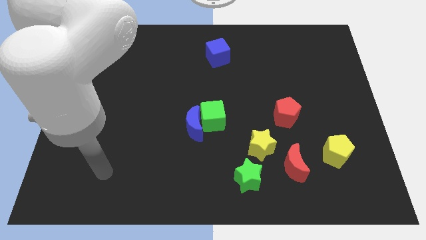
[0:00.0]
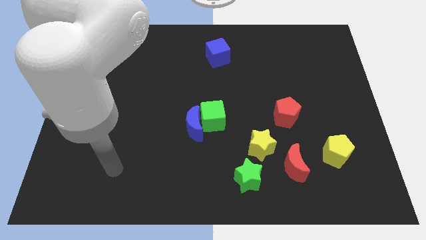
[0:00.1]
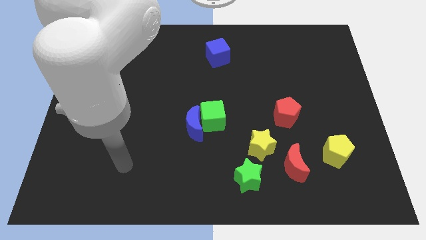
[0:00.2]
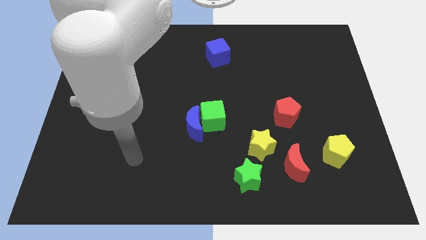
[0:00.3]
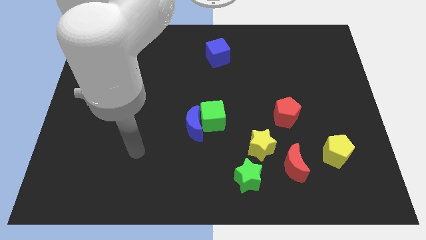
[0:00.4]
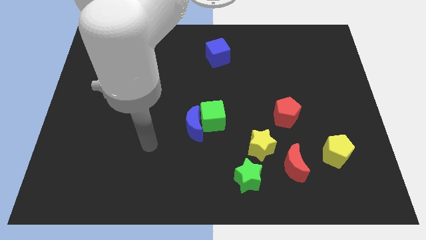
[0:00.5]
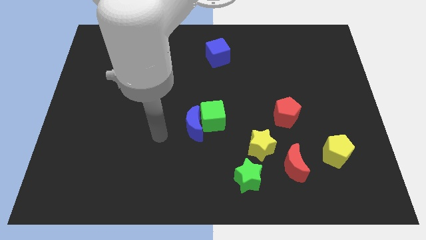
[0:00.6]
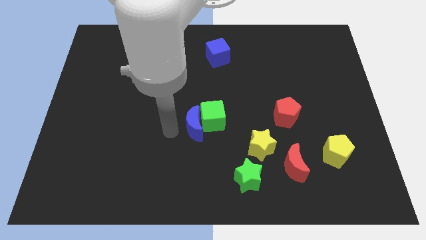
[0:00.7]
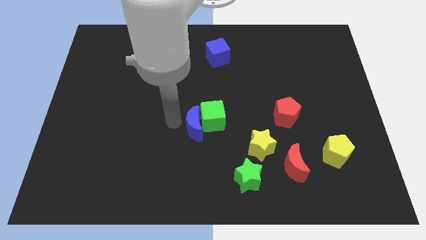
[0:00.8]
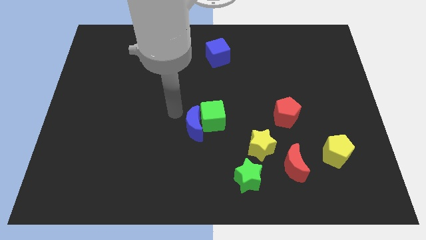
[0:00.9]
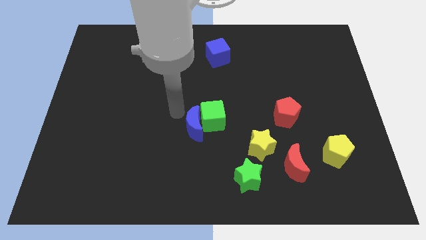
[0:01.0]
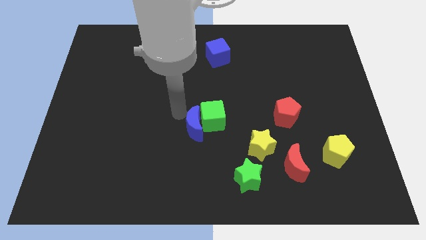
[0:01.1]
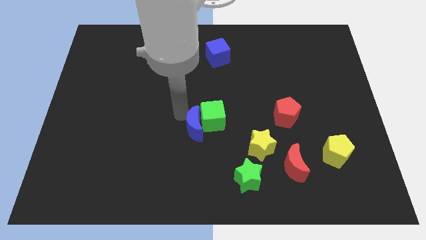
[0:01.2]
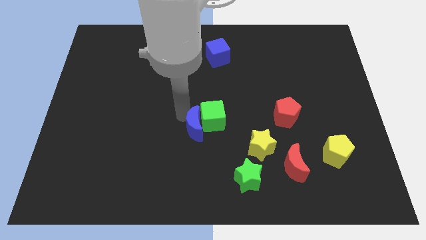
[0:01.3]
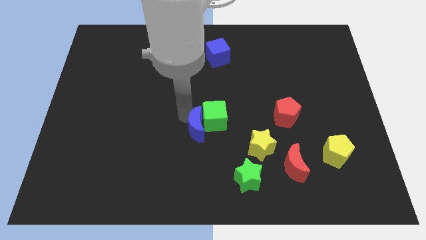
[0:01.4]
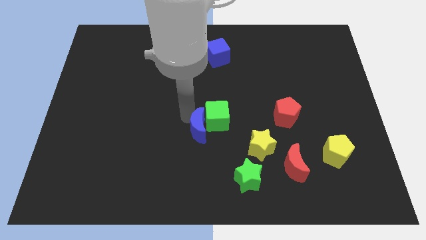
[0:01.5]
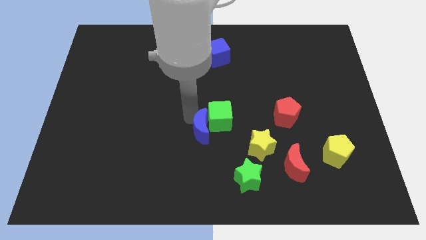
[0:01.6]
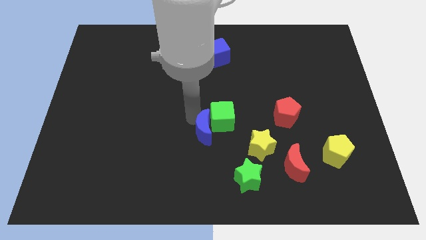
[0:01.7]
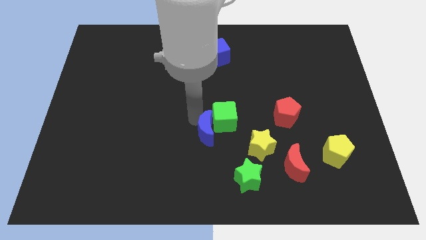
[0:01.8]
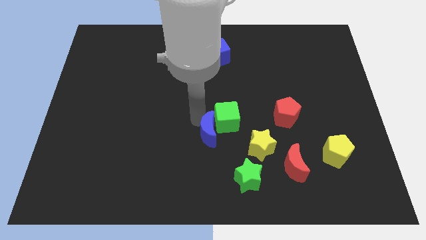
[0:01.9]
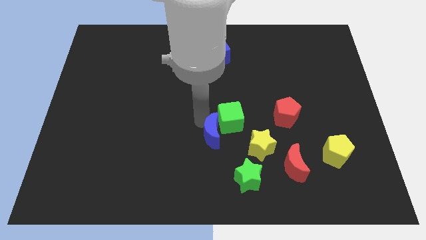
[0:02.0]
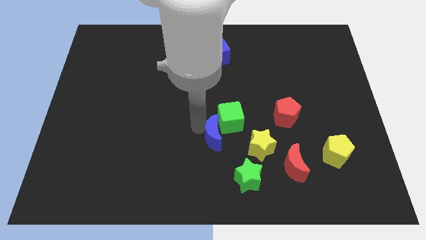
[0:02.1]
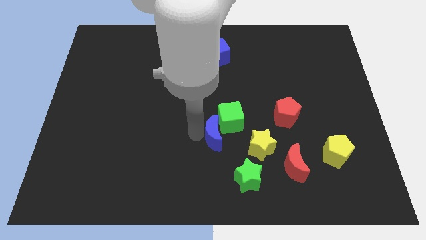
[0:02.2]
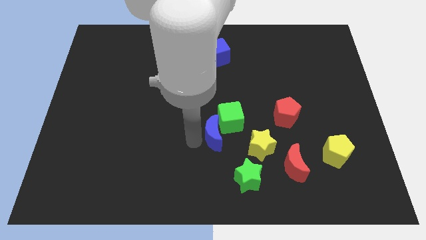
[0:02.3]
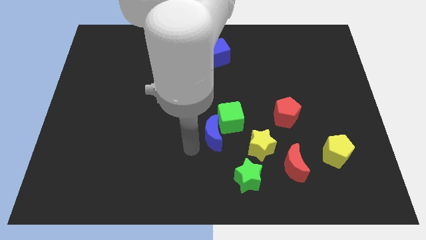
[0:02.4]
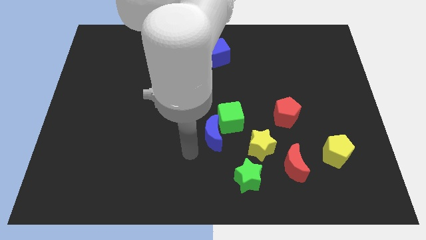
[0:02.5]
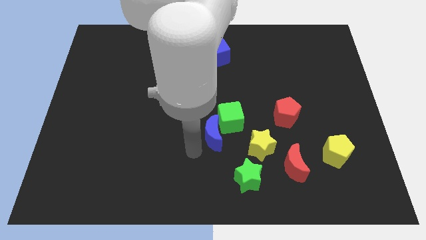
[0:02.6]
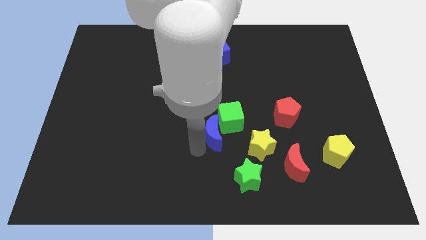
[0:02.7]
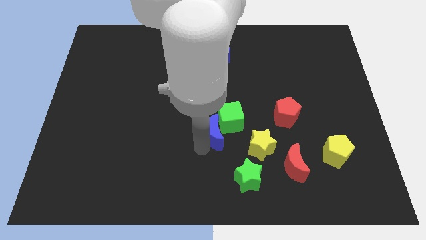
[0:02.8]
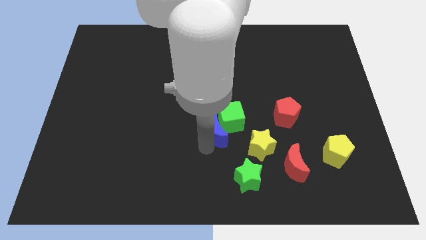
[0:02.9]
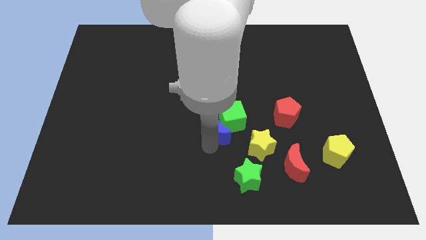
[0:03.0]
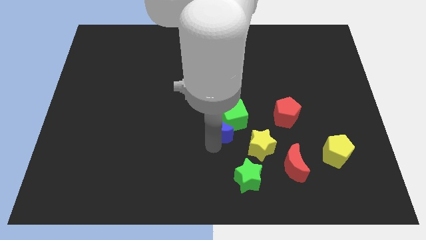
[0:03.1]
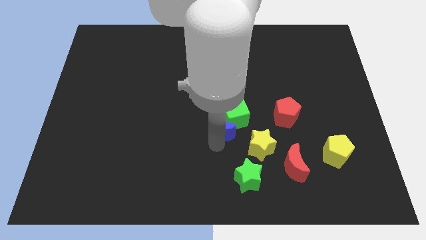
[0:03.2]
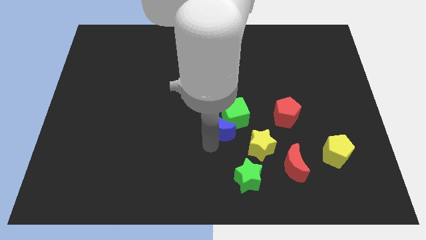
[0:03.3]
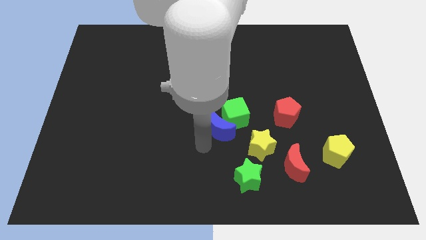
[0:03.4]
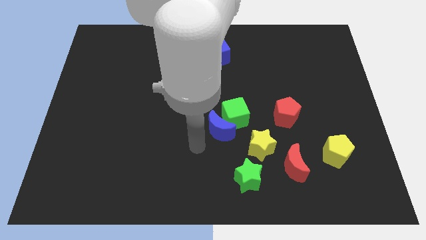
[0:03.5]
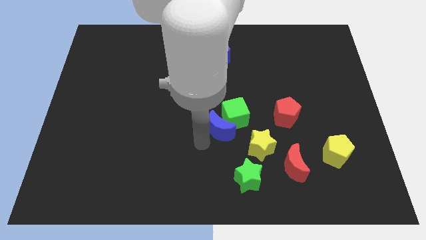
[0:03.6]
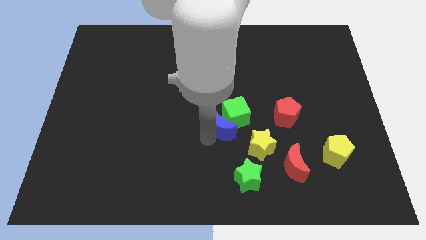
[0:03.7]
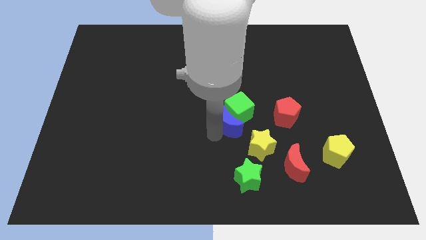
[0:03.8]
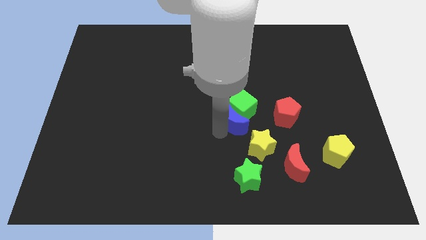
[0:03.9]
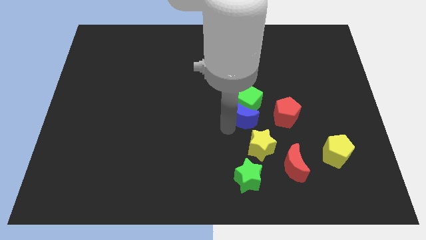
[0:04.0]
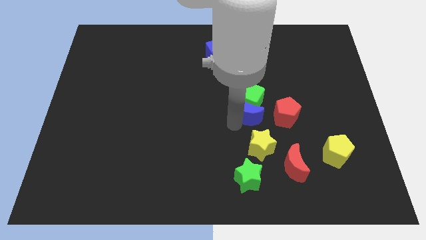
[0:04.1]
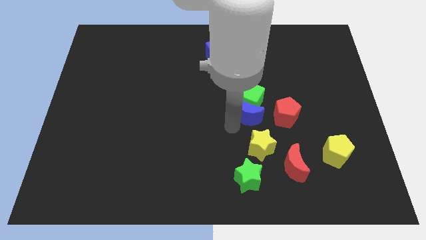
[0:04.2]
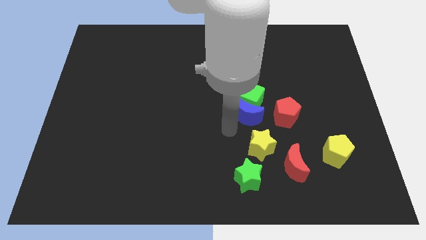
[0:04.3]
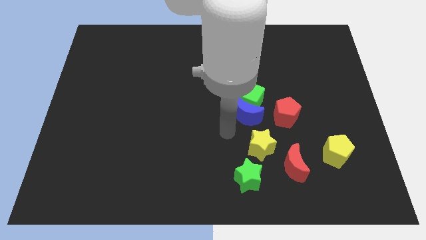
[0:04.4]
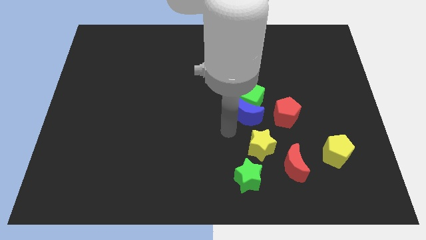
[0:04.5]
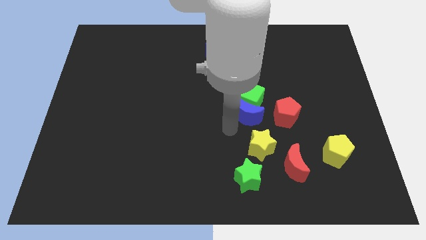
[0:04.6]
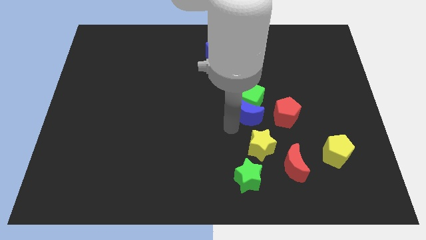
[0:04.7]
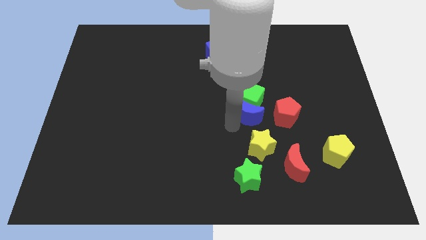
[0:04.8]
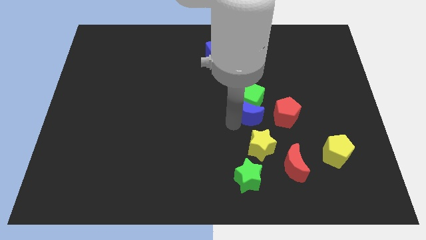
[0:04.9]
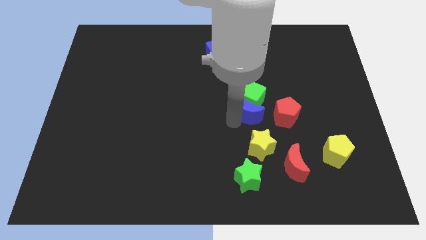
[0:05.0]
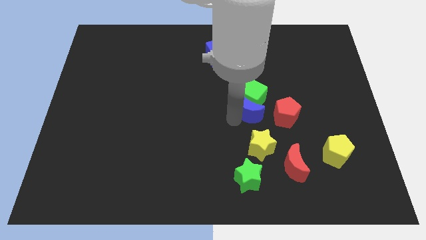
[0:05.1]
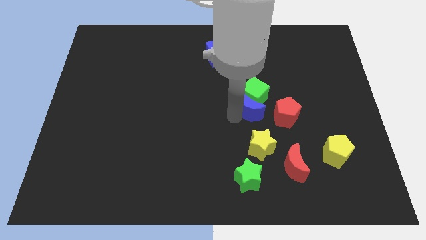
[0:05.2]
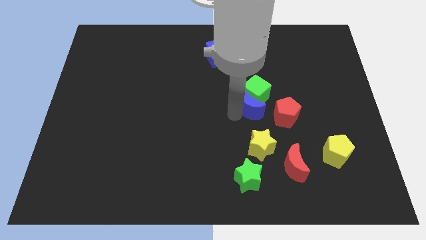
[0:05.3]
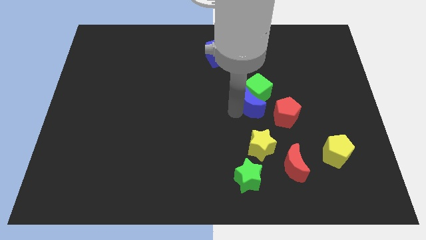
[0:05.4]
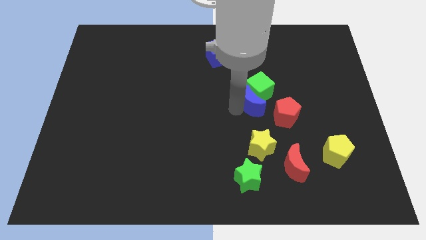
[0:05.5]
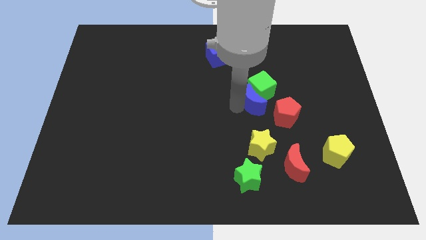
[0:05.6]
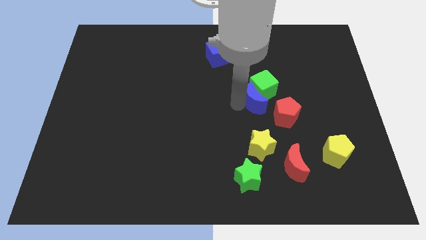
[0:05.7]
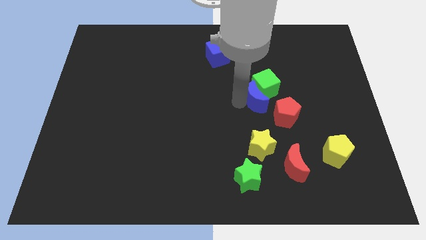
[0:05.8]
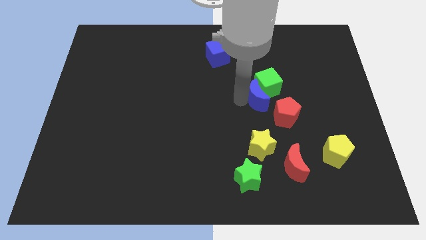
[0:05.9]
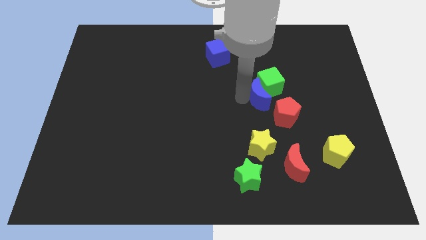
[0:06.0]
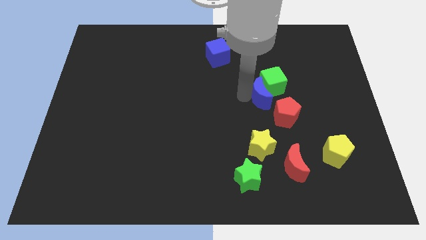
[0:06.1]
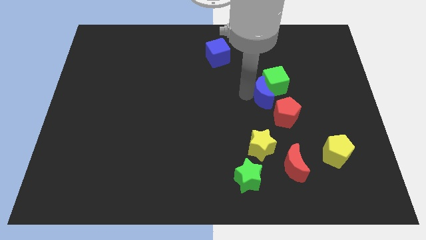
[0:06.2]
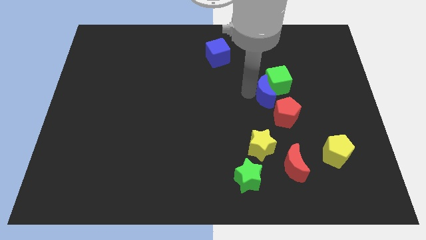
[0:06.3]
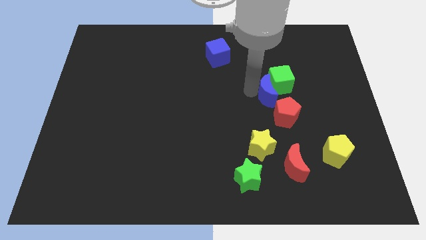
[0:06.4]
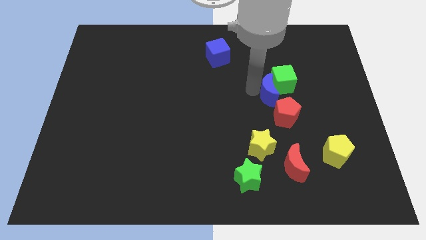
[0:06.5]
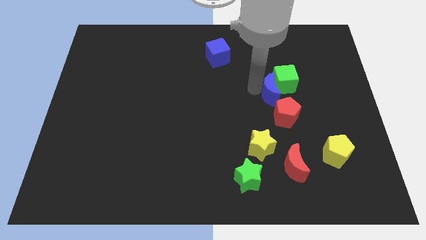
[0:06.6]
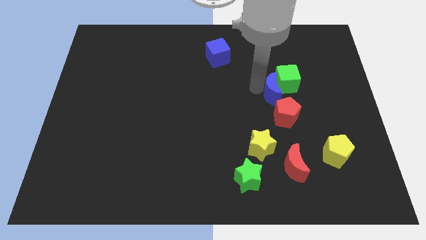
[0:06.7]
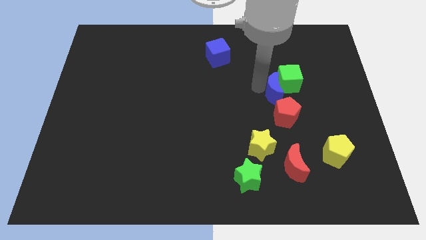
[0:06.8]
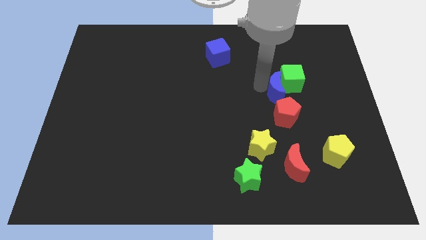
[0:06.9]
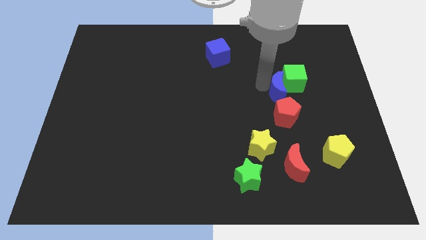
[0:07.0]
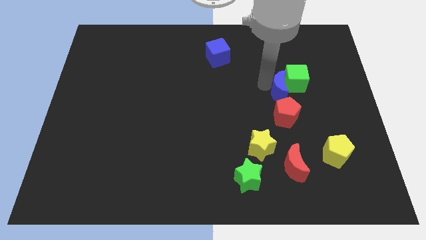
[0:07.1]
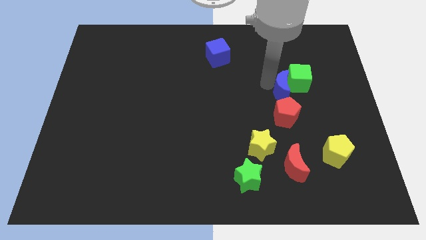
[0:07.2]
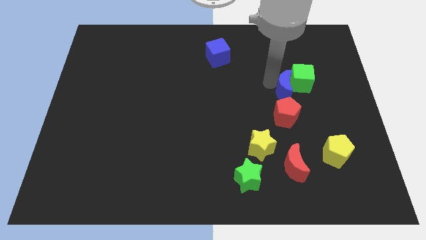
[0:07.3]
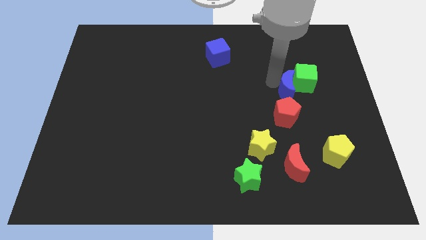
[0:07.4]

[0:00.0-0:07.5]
put the blue moon diagonally up and to the right of the red pentagon
